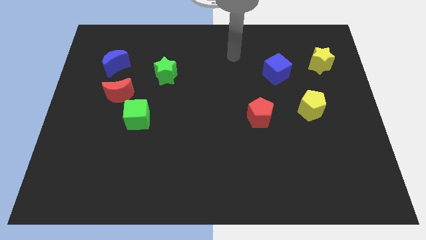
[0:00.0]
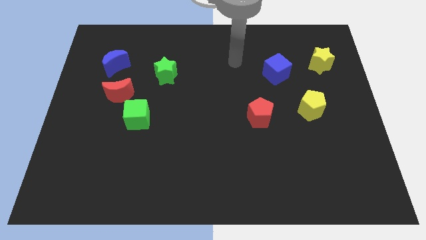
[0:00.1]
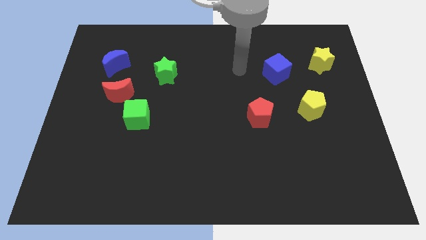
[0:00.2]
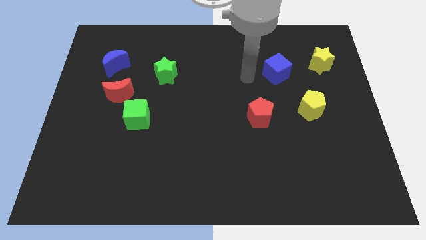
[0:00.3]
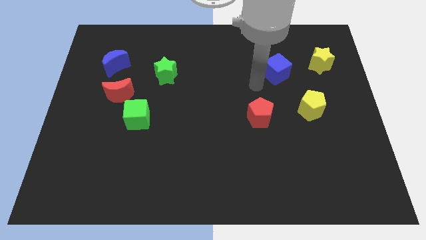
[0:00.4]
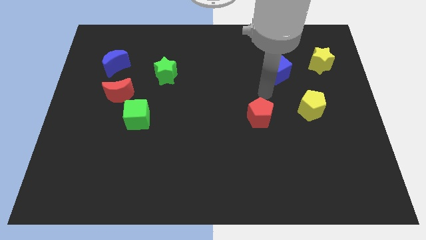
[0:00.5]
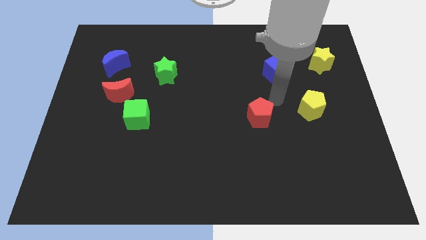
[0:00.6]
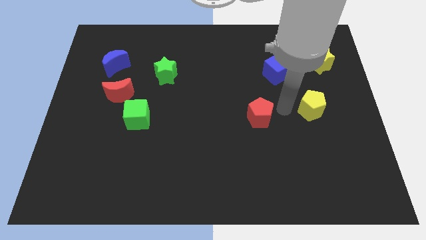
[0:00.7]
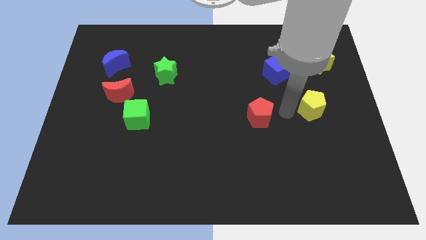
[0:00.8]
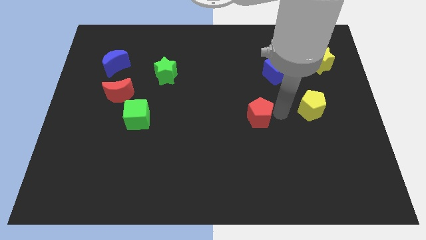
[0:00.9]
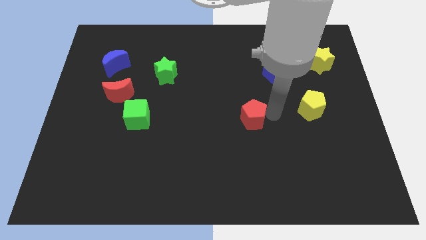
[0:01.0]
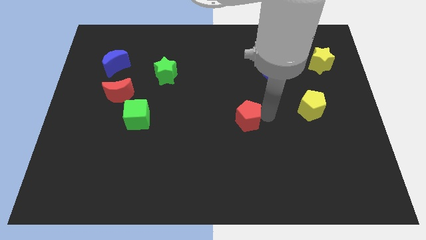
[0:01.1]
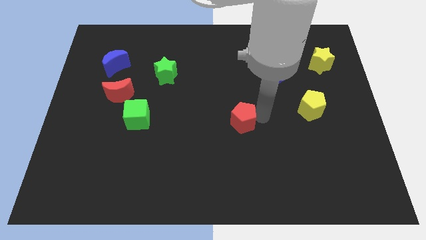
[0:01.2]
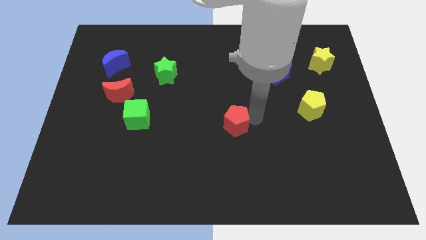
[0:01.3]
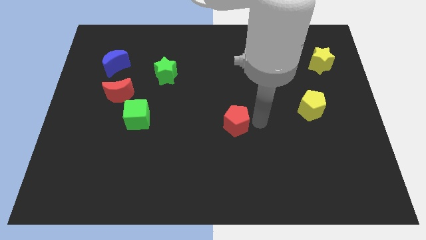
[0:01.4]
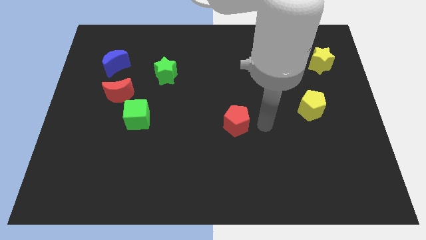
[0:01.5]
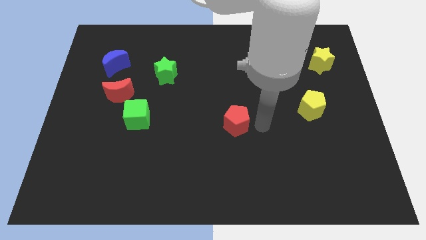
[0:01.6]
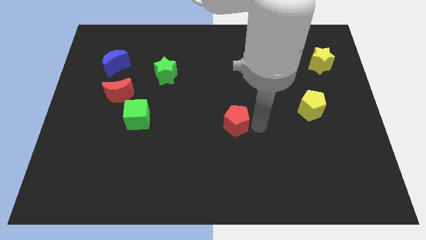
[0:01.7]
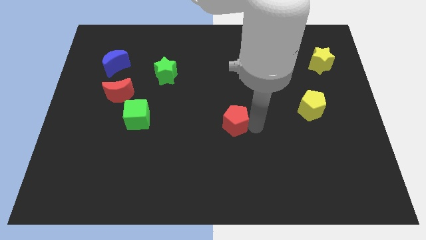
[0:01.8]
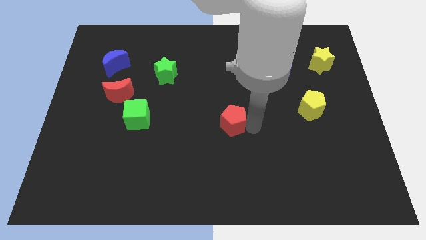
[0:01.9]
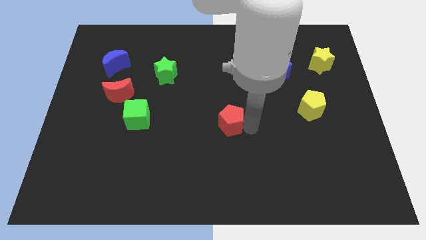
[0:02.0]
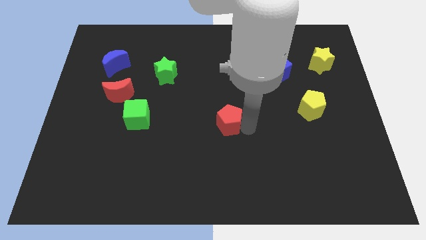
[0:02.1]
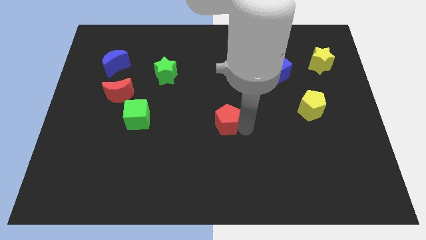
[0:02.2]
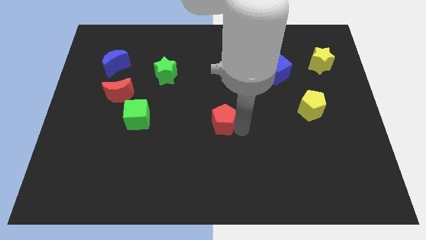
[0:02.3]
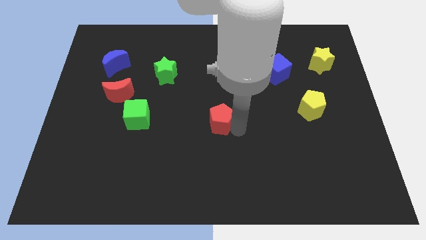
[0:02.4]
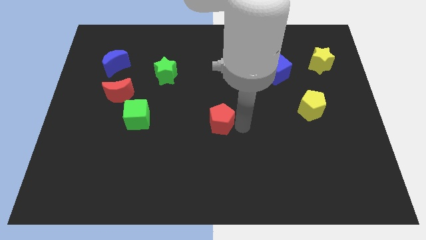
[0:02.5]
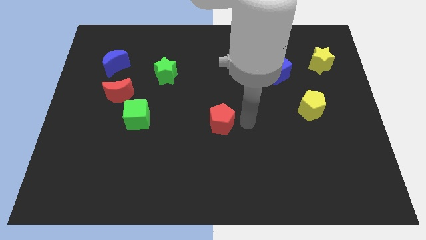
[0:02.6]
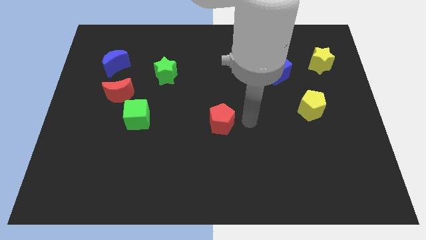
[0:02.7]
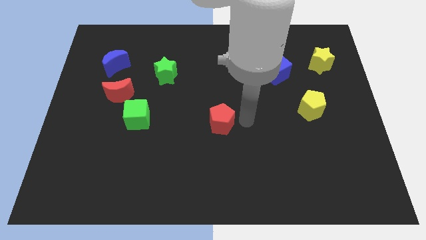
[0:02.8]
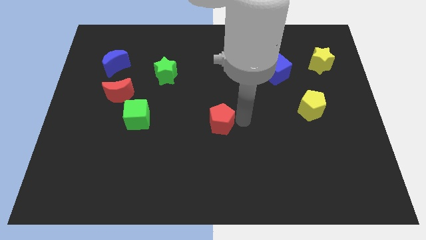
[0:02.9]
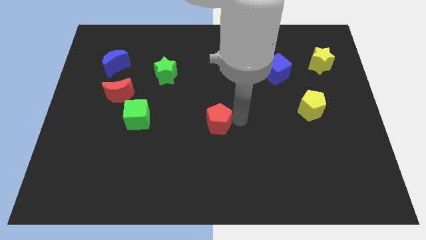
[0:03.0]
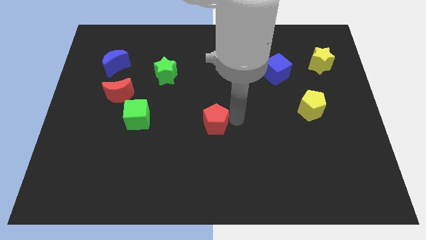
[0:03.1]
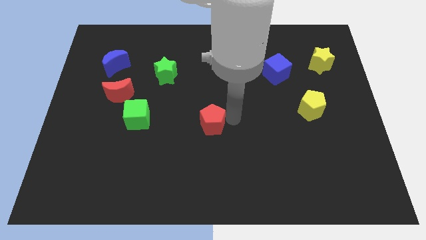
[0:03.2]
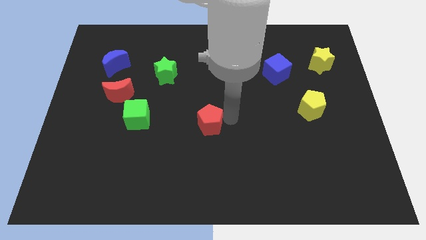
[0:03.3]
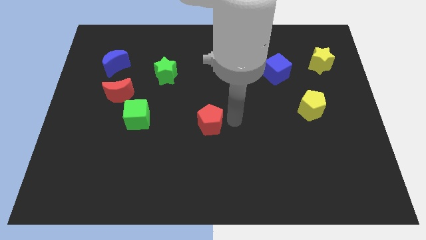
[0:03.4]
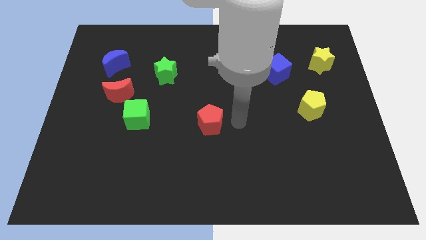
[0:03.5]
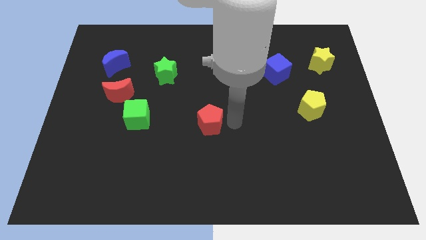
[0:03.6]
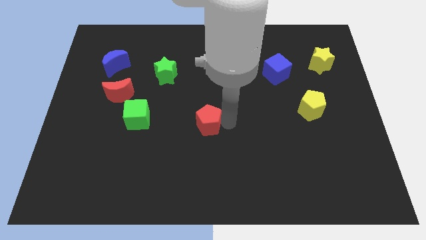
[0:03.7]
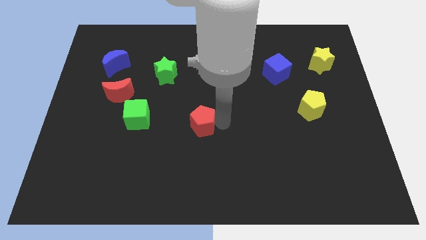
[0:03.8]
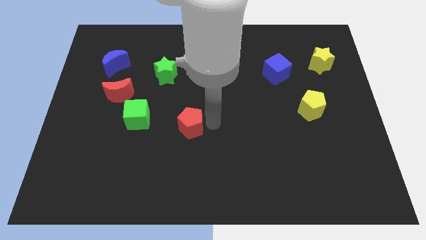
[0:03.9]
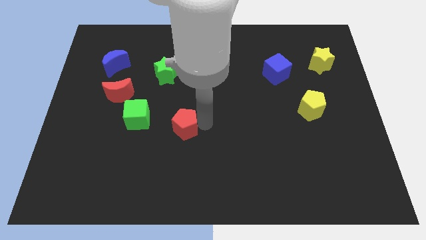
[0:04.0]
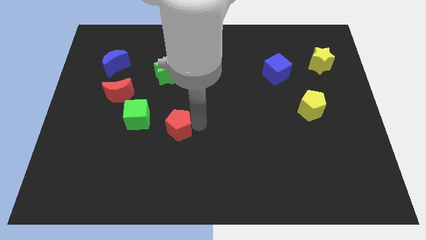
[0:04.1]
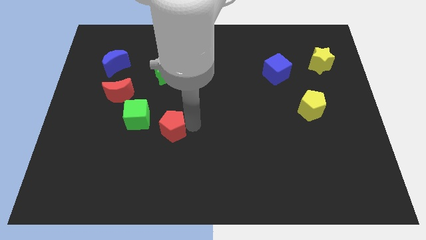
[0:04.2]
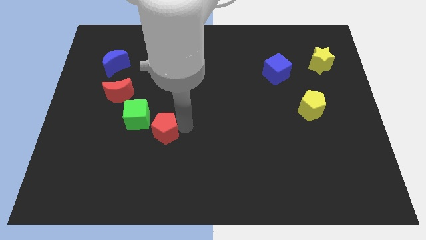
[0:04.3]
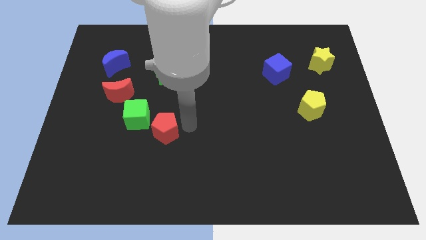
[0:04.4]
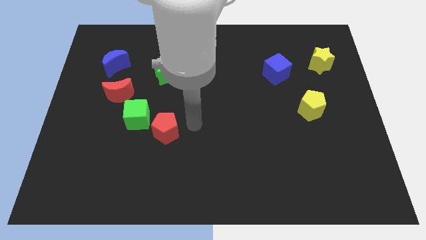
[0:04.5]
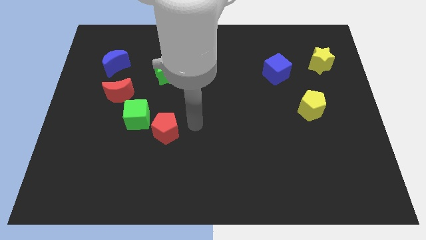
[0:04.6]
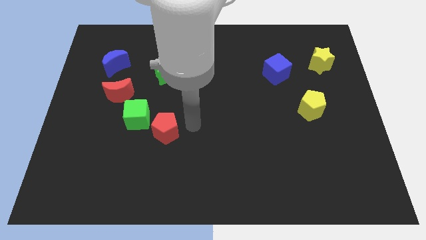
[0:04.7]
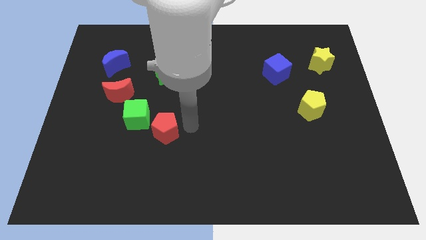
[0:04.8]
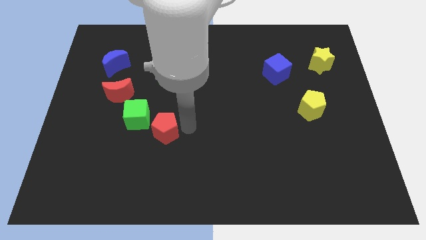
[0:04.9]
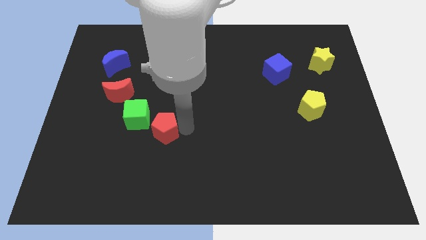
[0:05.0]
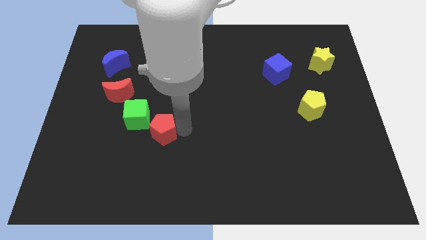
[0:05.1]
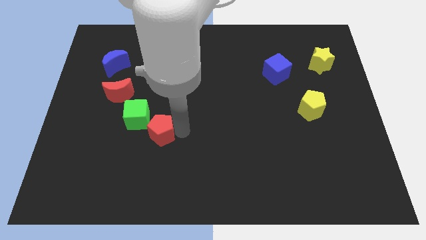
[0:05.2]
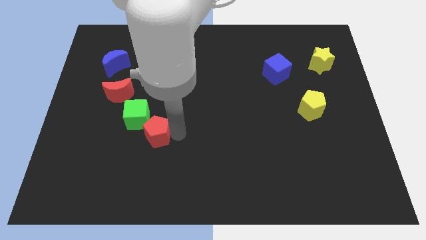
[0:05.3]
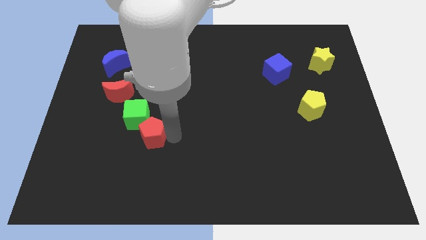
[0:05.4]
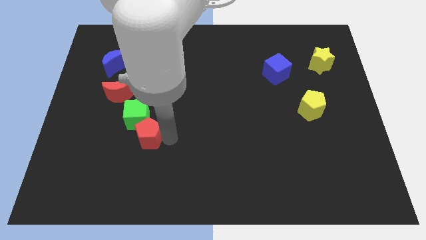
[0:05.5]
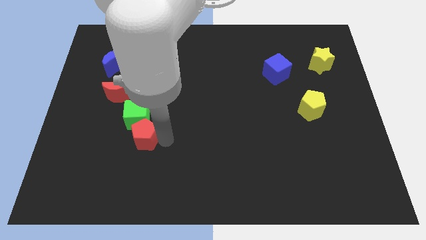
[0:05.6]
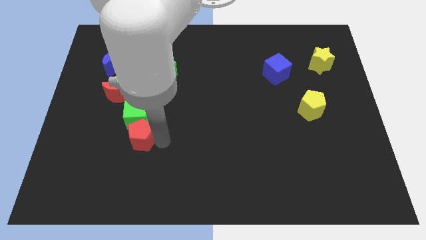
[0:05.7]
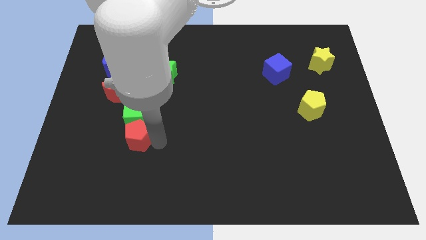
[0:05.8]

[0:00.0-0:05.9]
move the red pentagon to the bottom left side of the green cube
